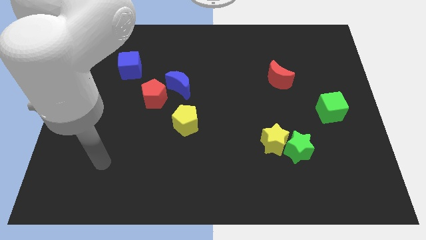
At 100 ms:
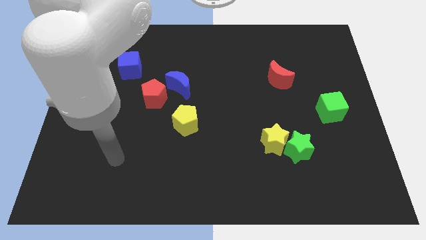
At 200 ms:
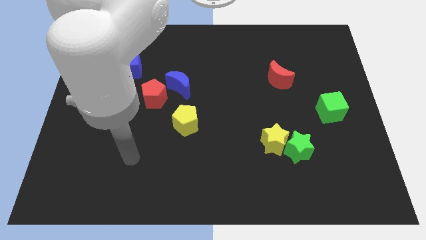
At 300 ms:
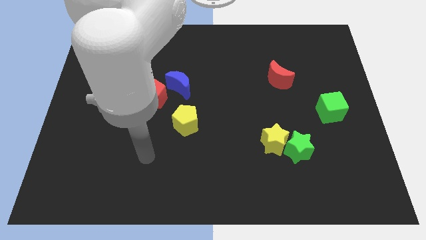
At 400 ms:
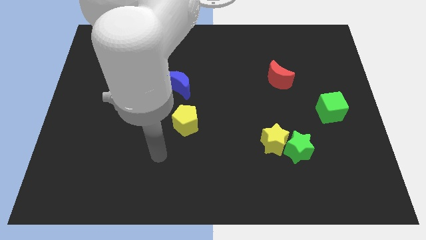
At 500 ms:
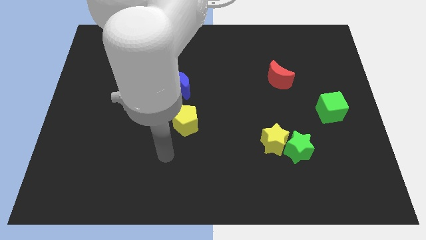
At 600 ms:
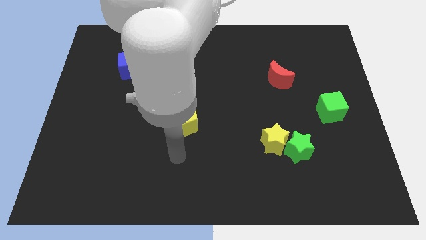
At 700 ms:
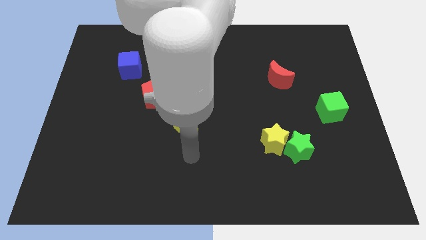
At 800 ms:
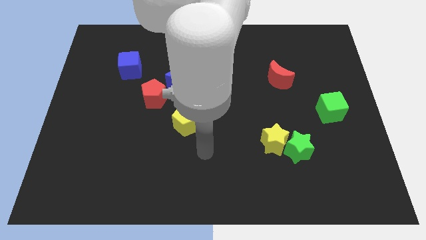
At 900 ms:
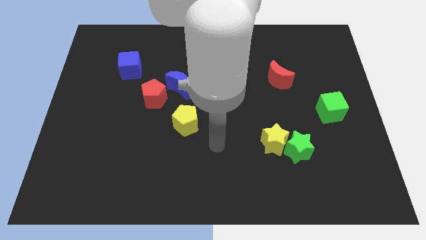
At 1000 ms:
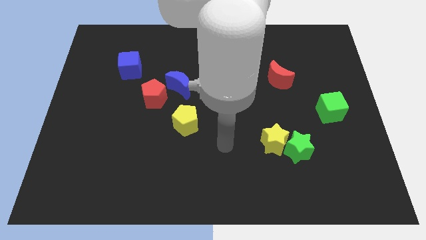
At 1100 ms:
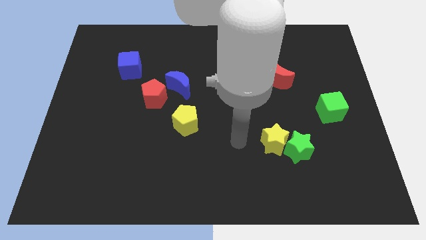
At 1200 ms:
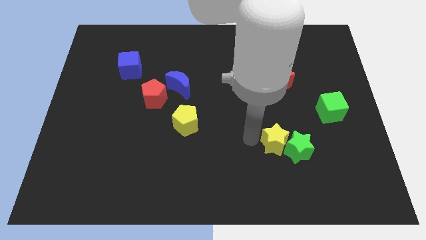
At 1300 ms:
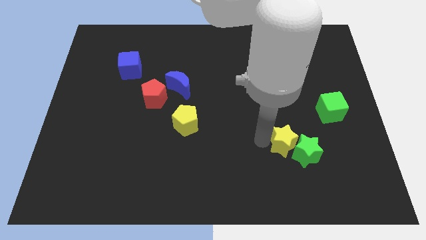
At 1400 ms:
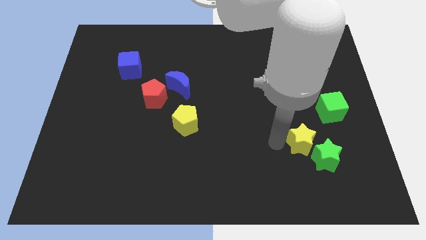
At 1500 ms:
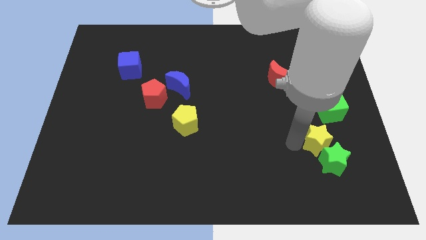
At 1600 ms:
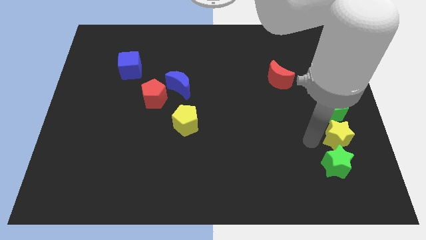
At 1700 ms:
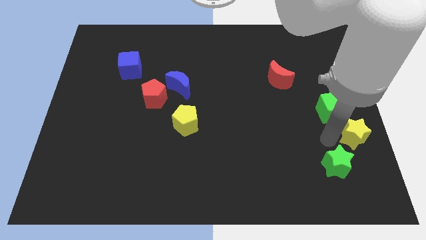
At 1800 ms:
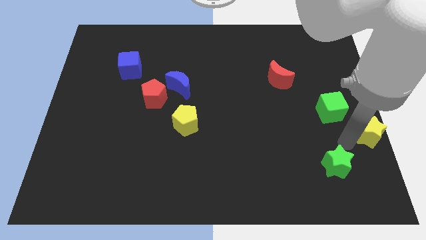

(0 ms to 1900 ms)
pull the green star apart from the yellow star

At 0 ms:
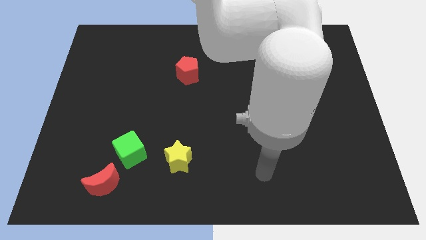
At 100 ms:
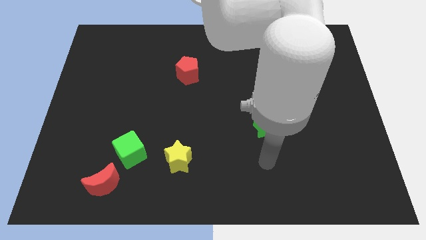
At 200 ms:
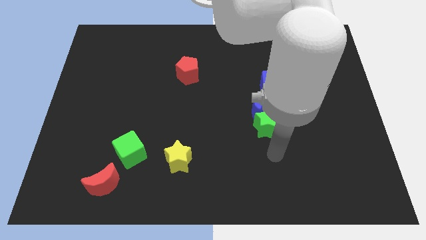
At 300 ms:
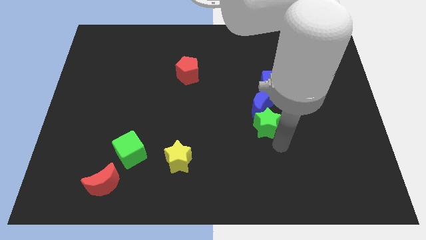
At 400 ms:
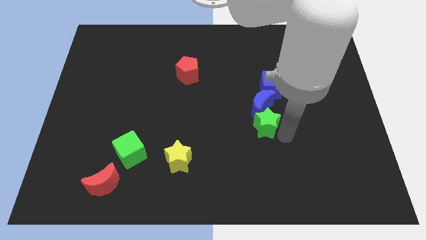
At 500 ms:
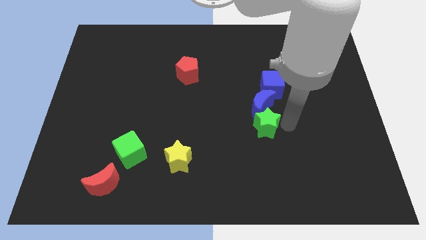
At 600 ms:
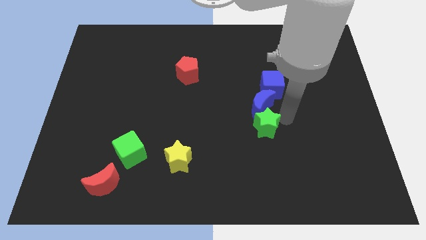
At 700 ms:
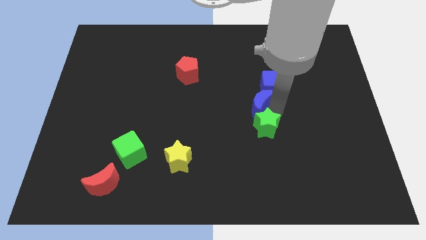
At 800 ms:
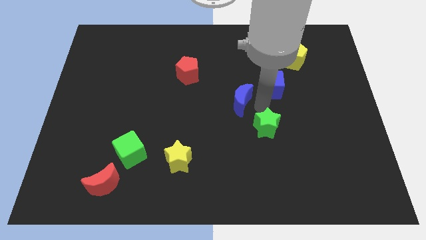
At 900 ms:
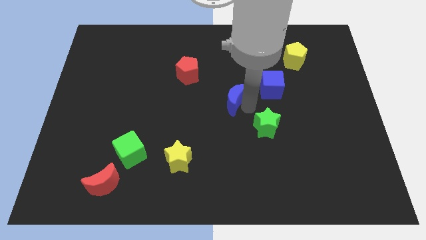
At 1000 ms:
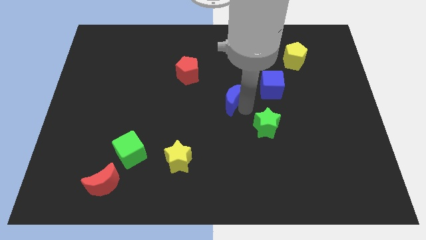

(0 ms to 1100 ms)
pull the green star apart from the blue moon

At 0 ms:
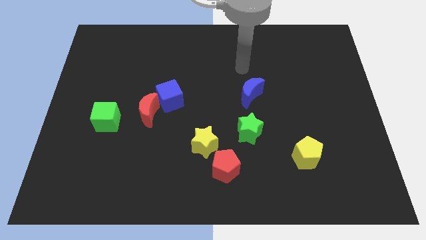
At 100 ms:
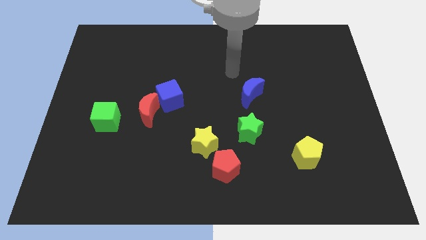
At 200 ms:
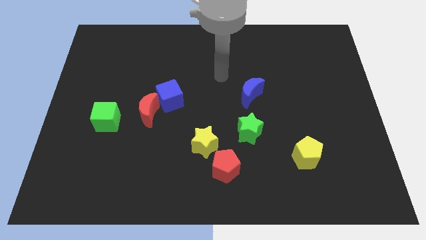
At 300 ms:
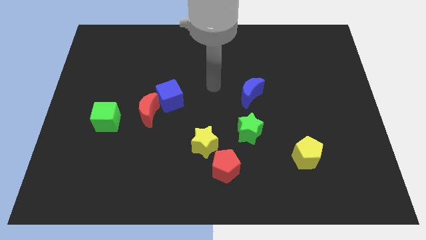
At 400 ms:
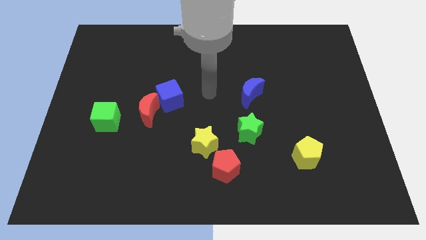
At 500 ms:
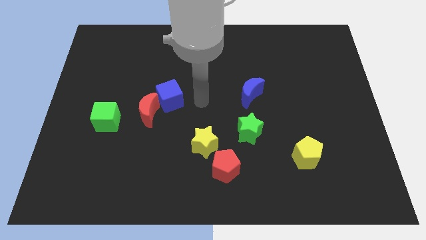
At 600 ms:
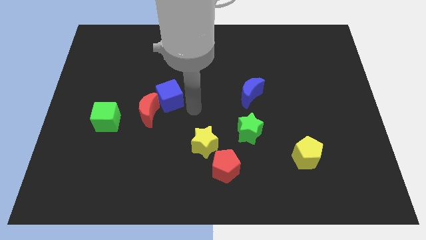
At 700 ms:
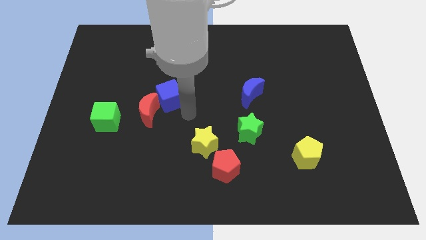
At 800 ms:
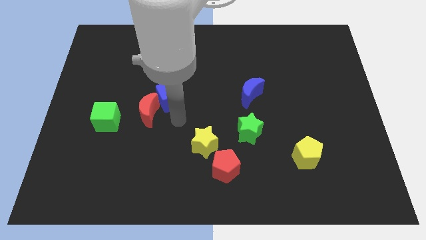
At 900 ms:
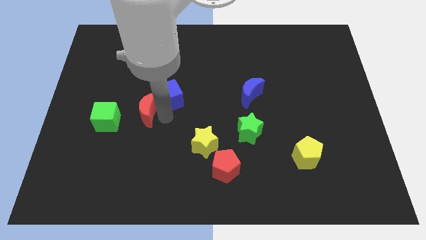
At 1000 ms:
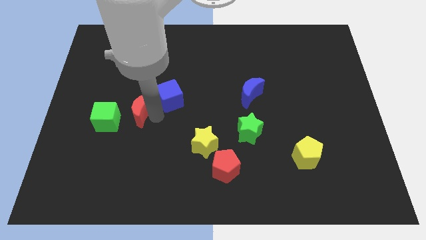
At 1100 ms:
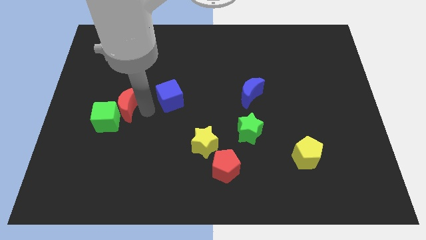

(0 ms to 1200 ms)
pull the blue cube apart from the red moon

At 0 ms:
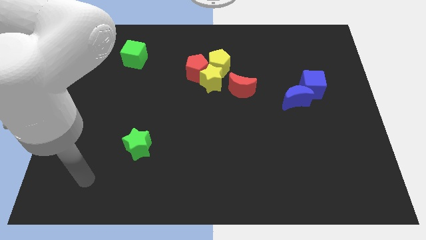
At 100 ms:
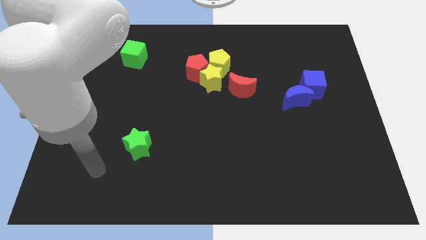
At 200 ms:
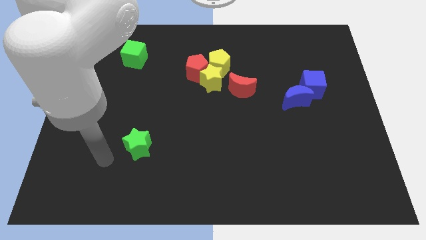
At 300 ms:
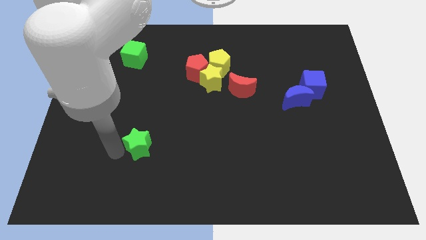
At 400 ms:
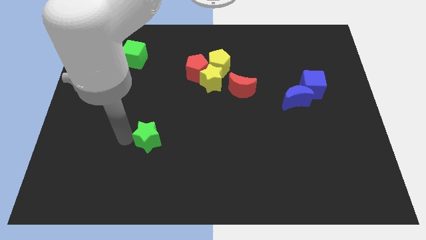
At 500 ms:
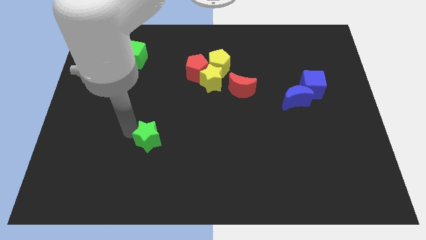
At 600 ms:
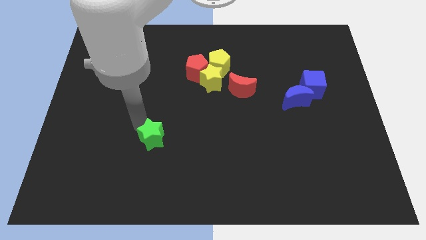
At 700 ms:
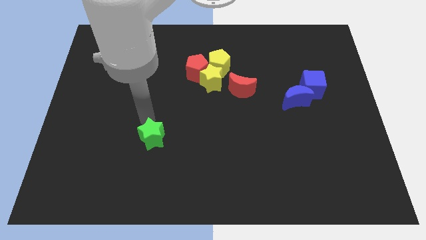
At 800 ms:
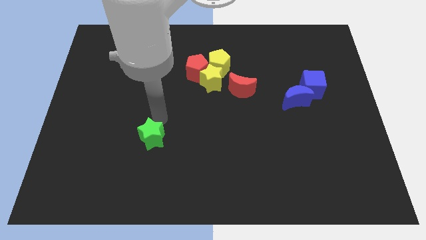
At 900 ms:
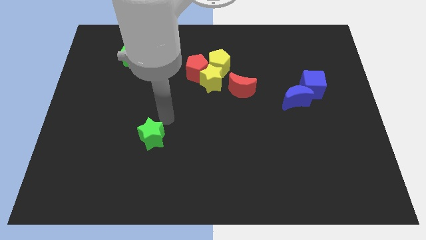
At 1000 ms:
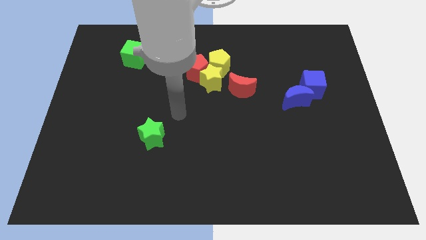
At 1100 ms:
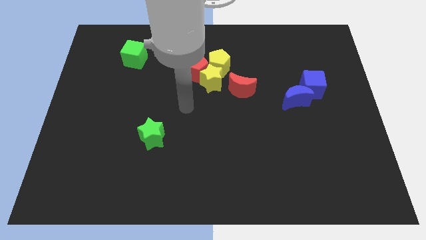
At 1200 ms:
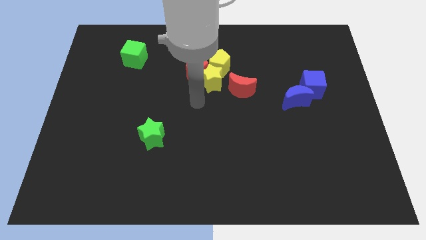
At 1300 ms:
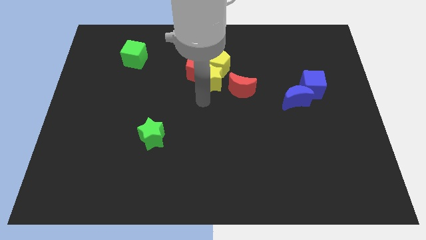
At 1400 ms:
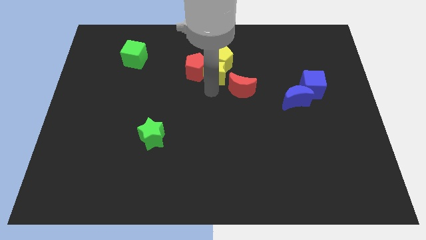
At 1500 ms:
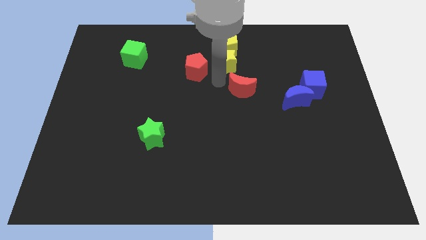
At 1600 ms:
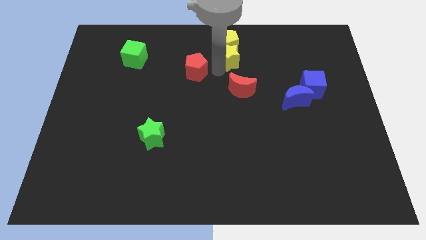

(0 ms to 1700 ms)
move the red pentagon away from the yellow star and yellow pentagon

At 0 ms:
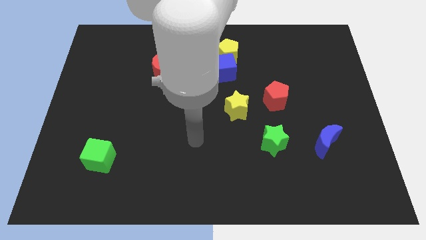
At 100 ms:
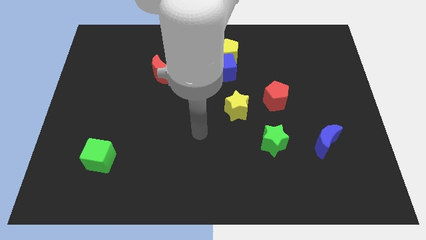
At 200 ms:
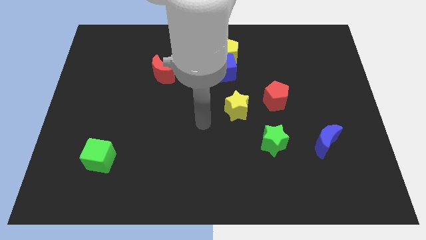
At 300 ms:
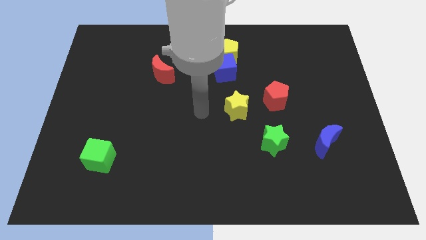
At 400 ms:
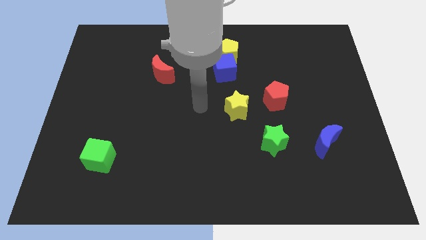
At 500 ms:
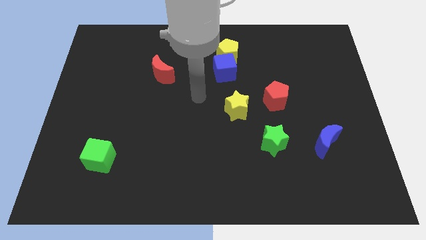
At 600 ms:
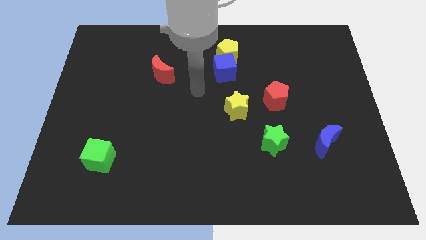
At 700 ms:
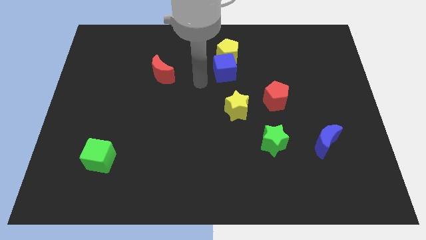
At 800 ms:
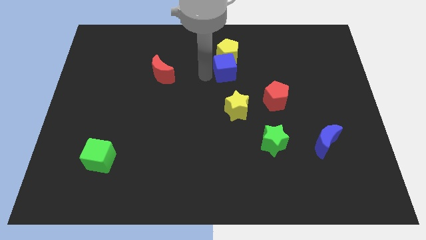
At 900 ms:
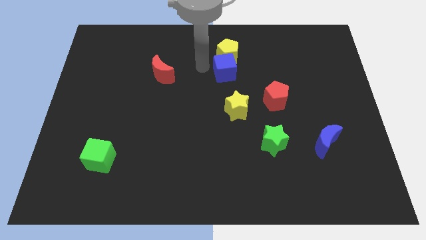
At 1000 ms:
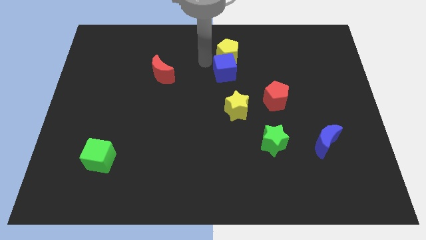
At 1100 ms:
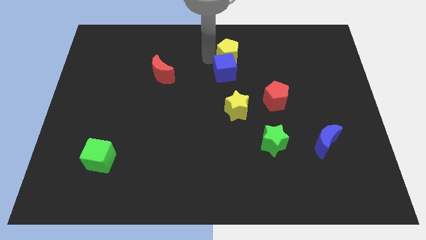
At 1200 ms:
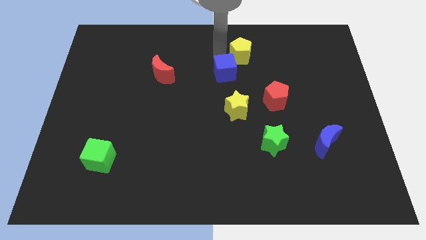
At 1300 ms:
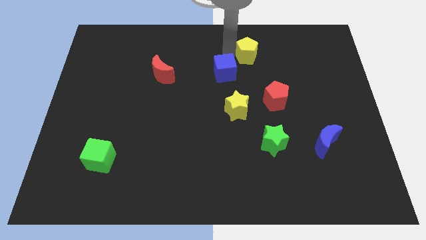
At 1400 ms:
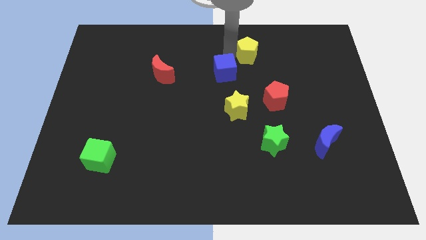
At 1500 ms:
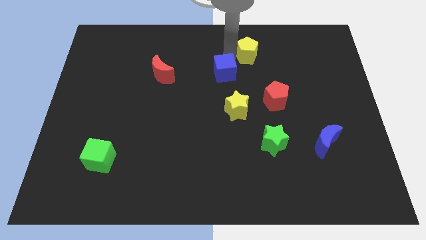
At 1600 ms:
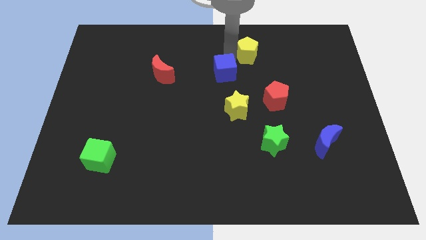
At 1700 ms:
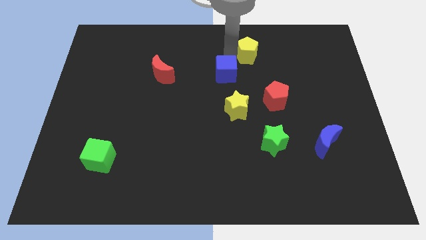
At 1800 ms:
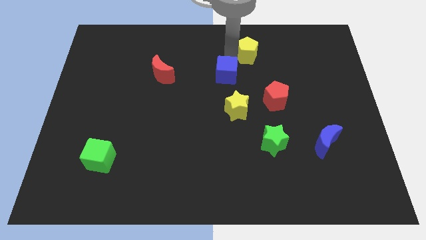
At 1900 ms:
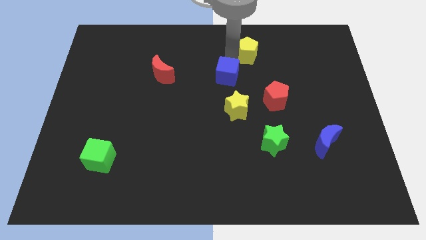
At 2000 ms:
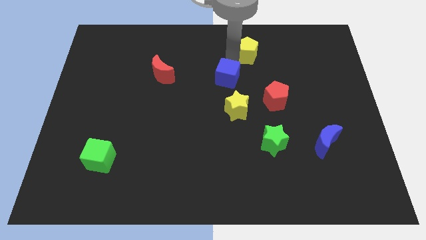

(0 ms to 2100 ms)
separate the blue cube from the yellow pentagon

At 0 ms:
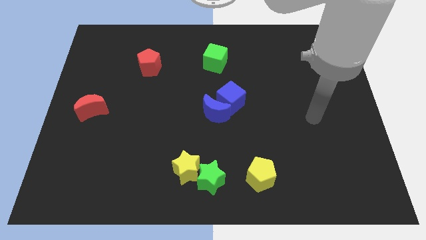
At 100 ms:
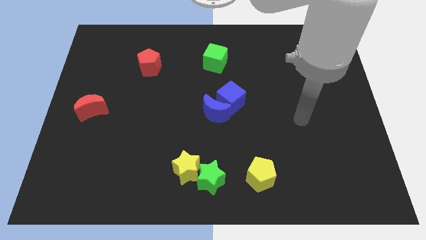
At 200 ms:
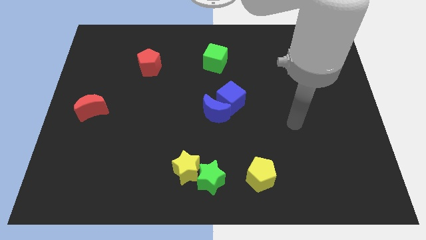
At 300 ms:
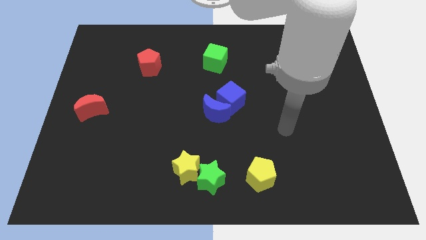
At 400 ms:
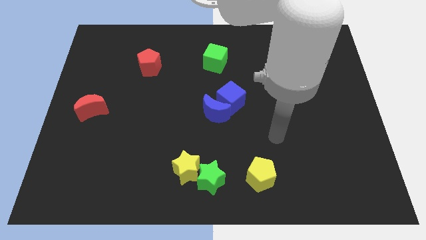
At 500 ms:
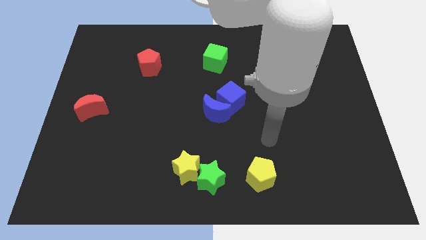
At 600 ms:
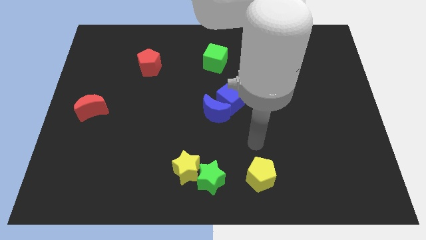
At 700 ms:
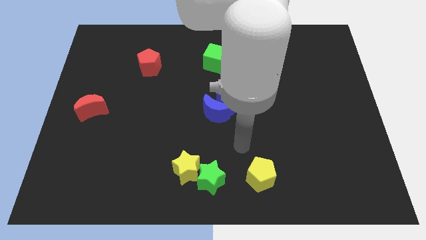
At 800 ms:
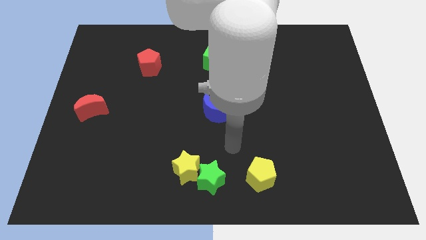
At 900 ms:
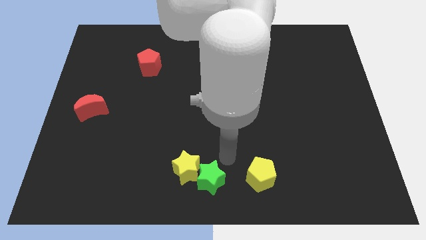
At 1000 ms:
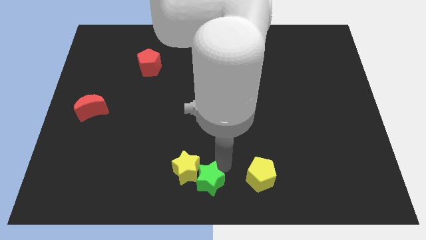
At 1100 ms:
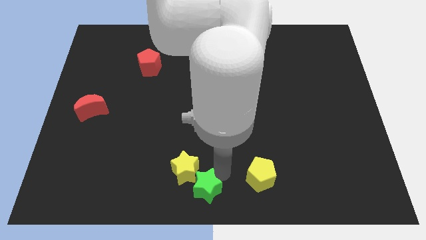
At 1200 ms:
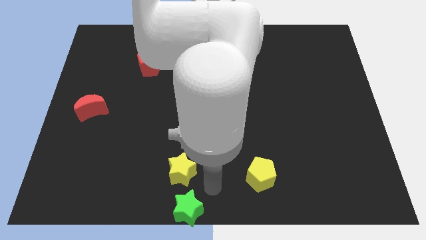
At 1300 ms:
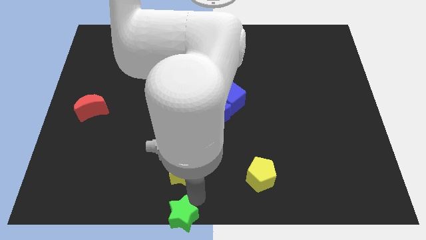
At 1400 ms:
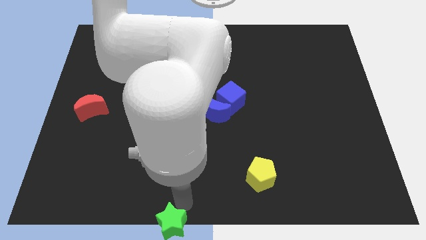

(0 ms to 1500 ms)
pull the yellow star apart from the green star
